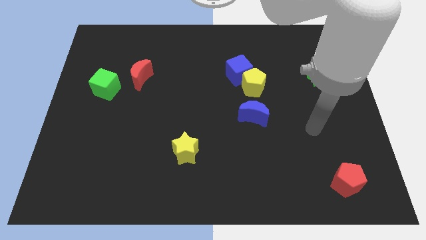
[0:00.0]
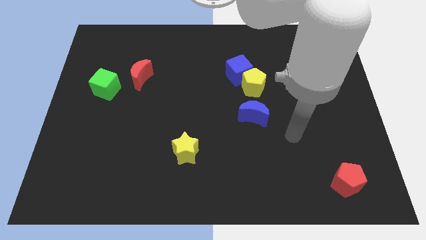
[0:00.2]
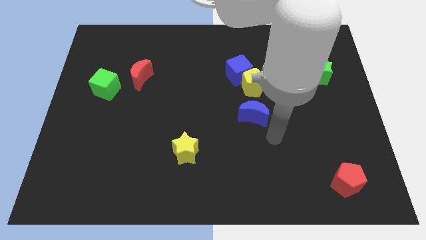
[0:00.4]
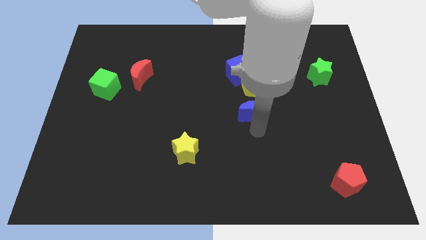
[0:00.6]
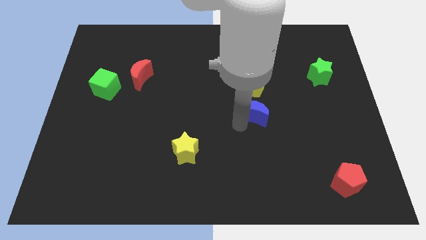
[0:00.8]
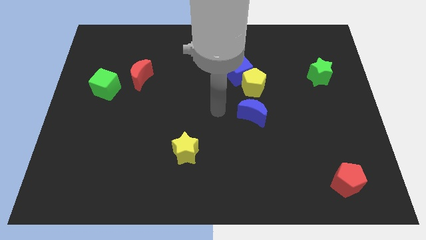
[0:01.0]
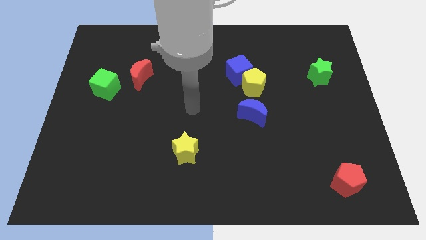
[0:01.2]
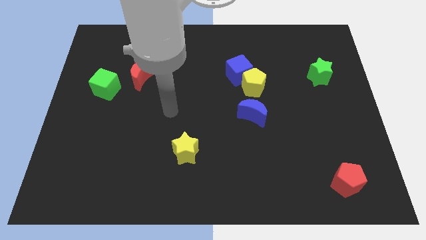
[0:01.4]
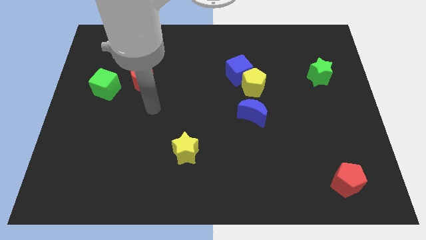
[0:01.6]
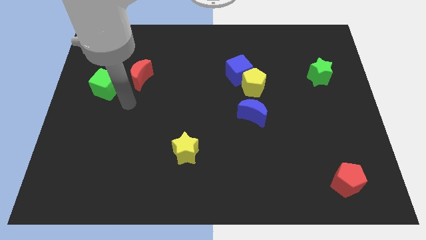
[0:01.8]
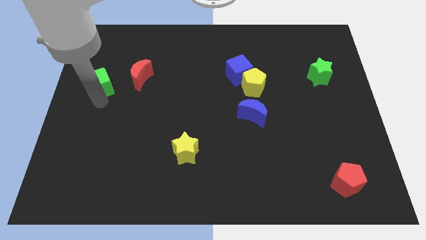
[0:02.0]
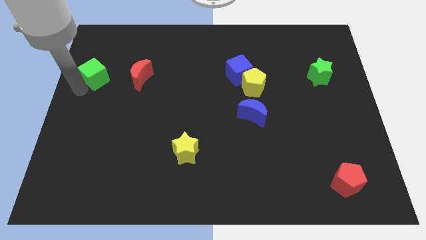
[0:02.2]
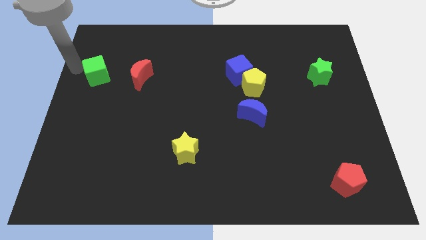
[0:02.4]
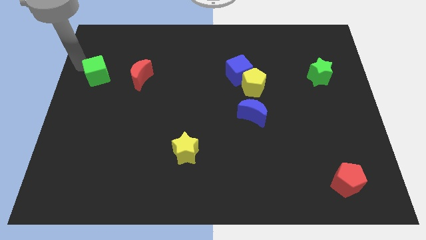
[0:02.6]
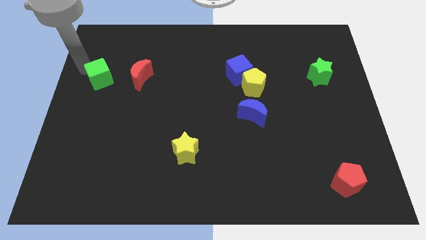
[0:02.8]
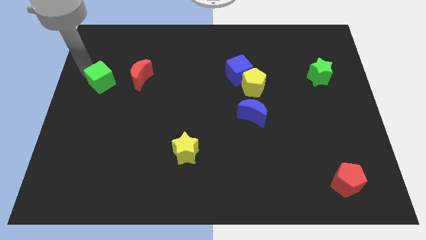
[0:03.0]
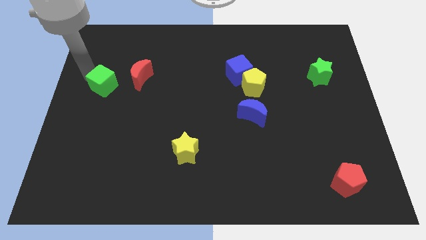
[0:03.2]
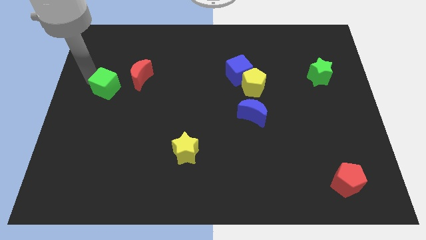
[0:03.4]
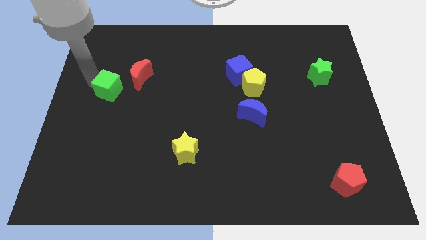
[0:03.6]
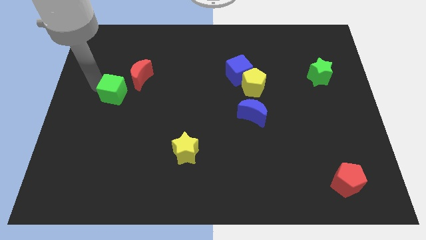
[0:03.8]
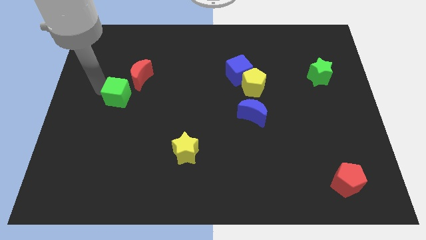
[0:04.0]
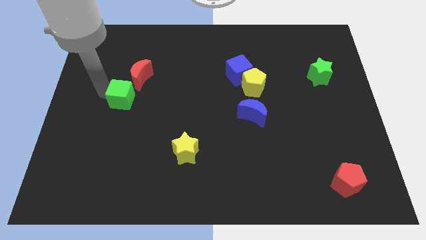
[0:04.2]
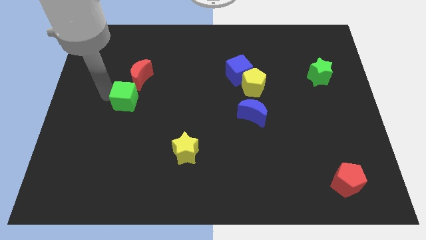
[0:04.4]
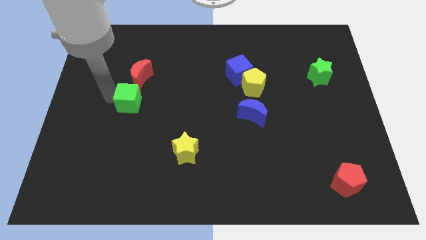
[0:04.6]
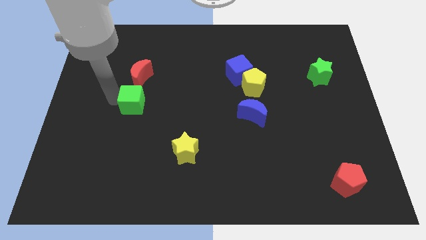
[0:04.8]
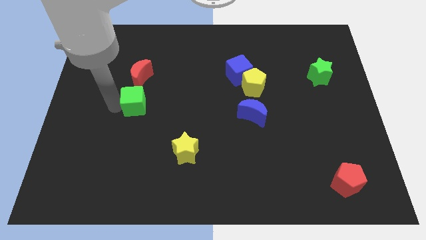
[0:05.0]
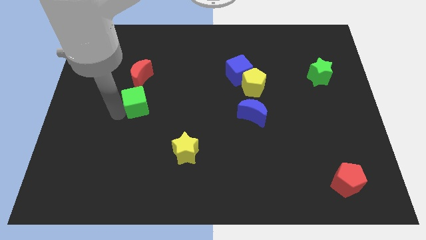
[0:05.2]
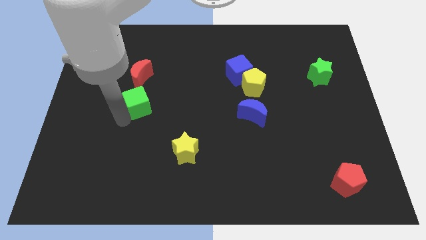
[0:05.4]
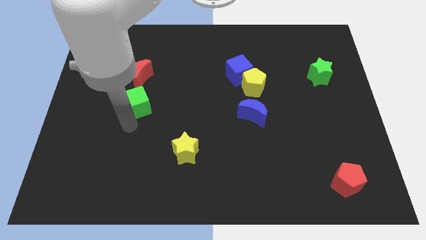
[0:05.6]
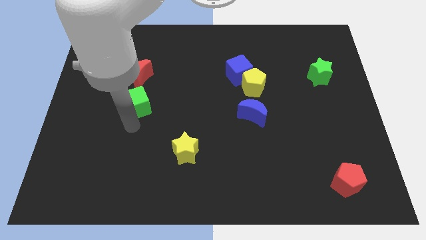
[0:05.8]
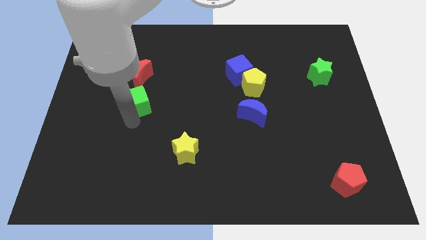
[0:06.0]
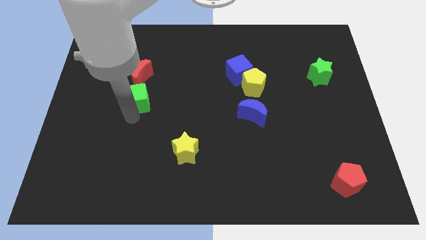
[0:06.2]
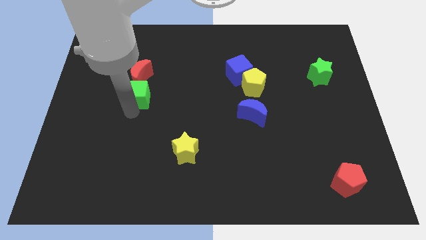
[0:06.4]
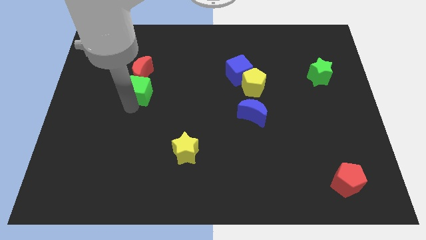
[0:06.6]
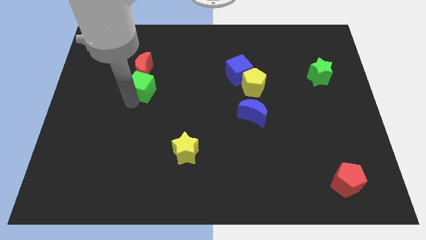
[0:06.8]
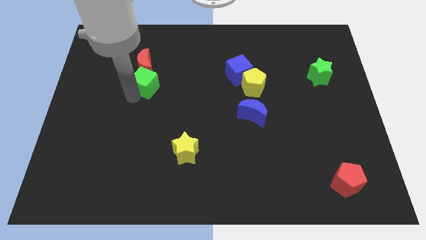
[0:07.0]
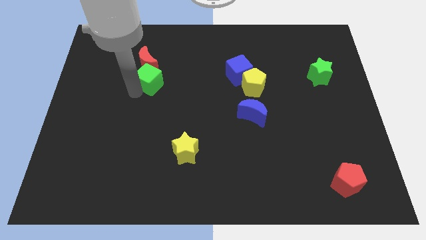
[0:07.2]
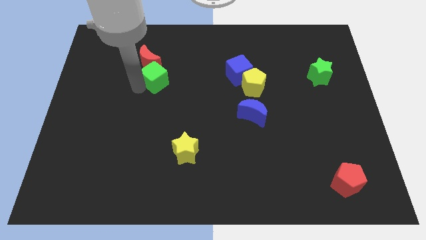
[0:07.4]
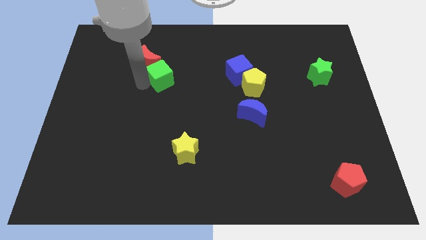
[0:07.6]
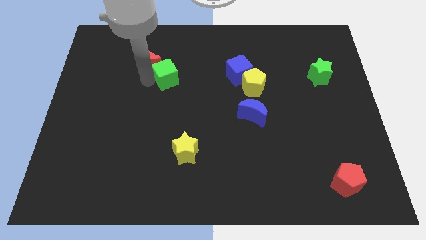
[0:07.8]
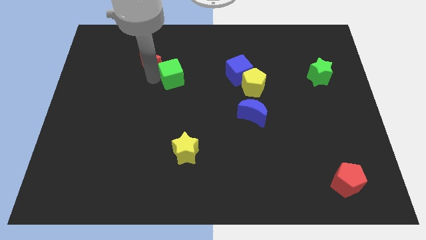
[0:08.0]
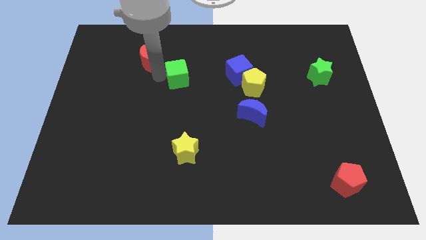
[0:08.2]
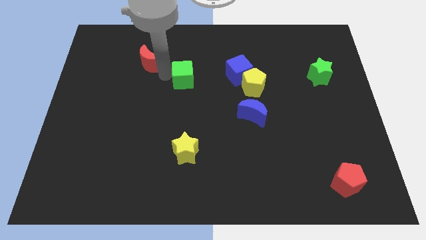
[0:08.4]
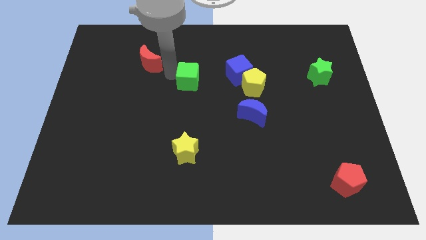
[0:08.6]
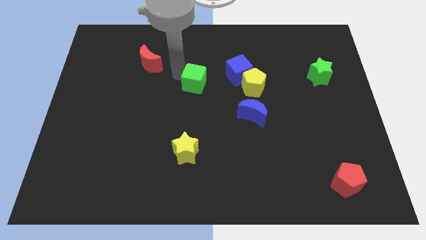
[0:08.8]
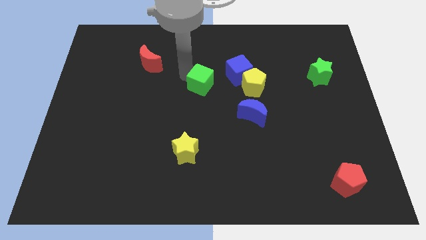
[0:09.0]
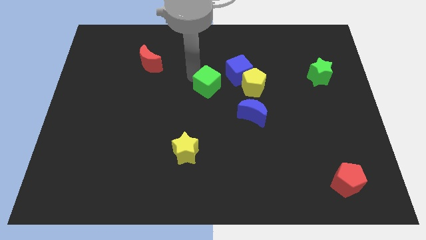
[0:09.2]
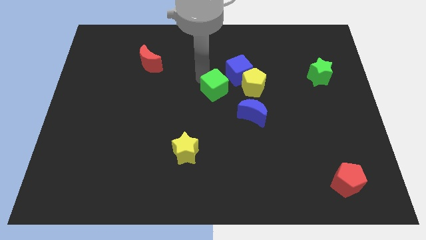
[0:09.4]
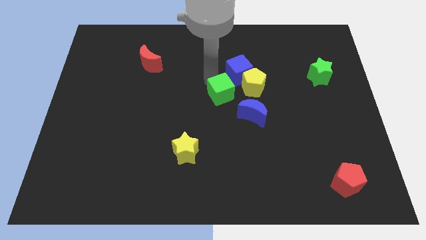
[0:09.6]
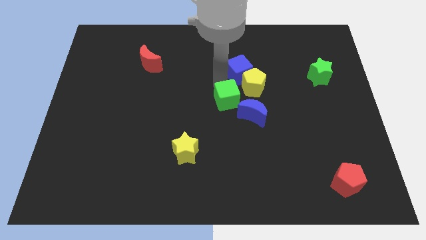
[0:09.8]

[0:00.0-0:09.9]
push the green cube to the left side of the blue moon
